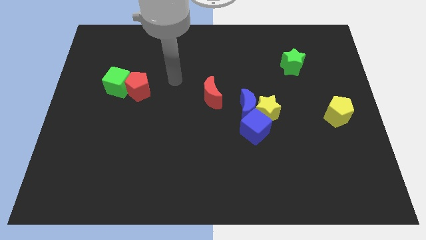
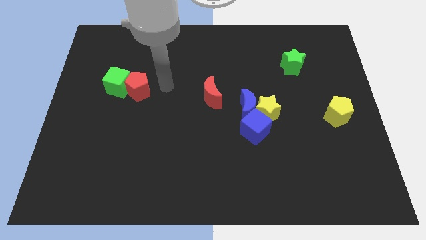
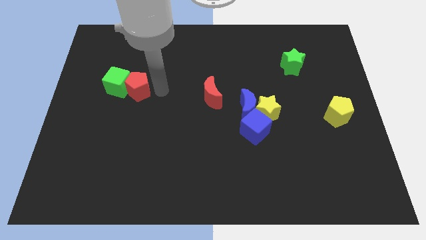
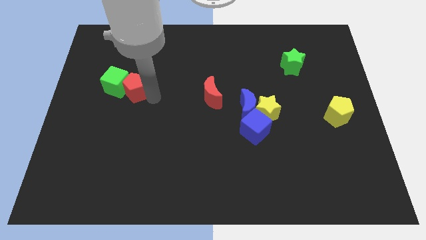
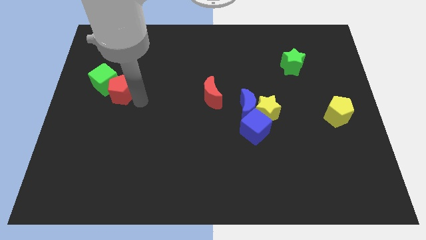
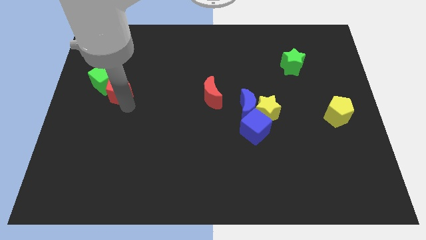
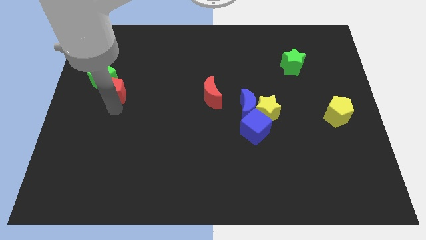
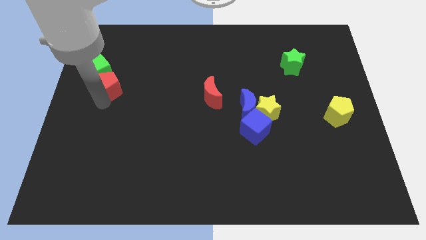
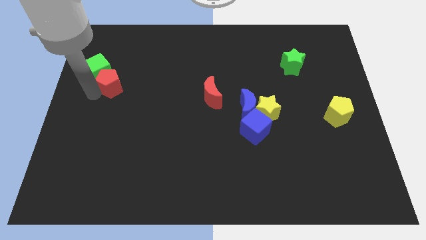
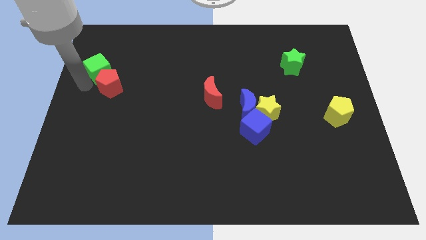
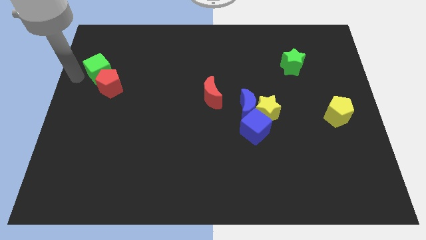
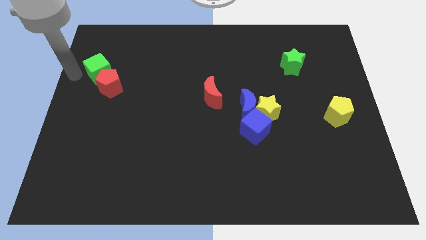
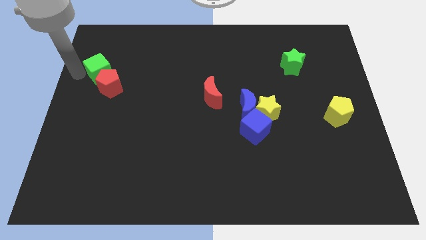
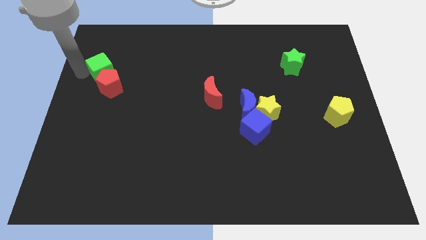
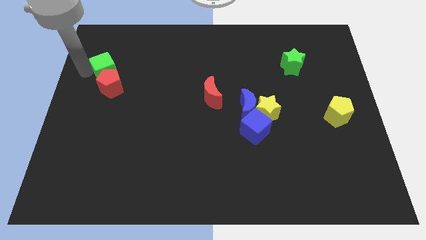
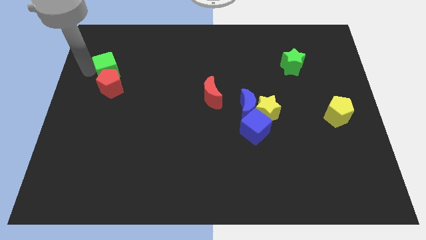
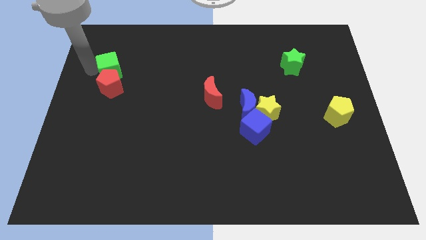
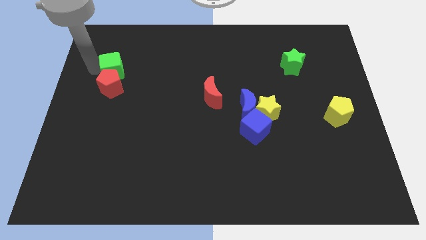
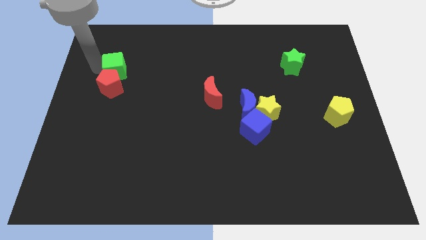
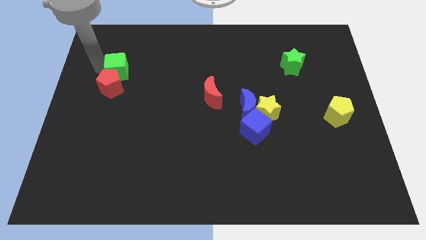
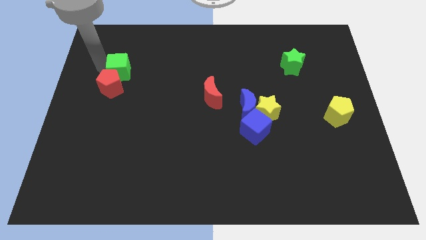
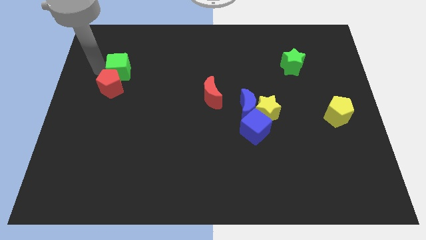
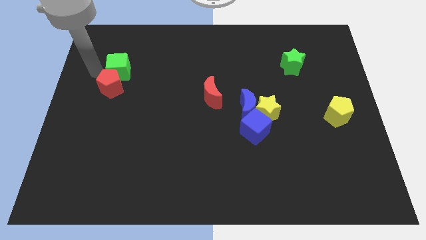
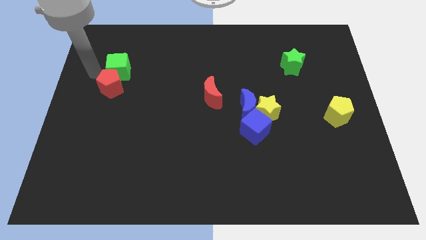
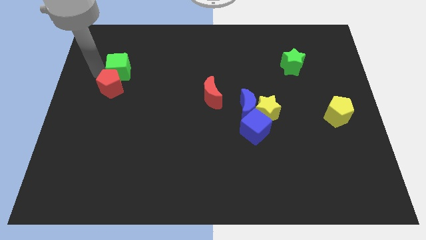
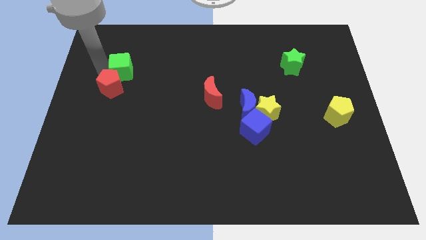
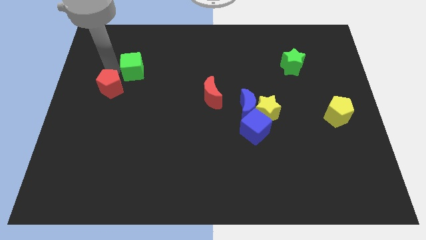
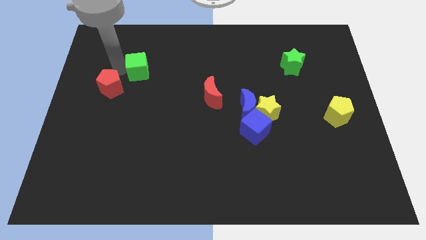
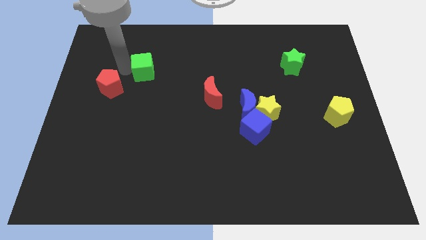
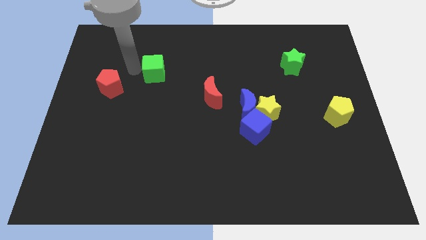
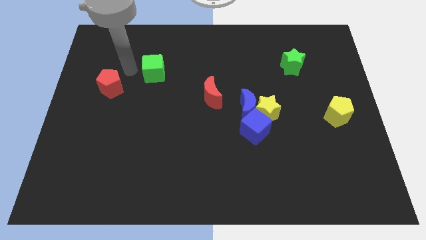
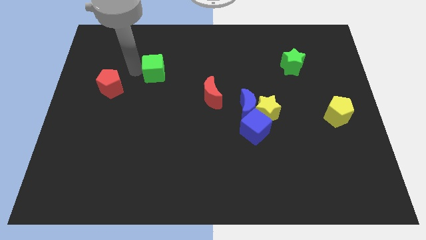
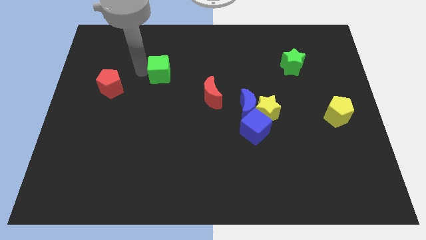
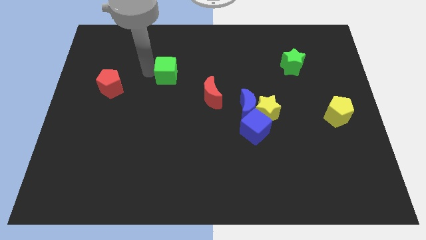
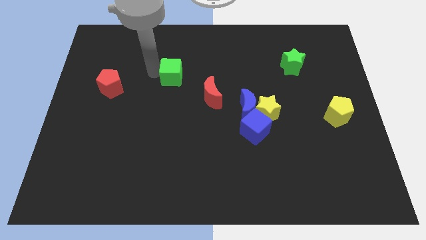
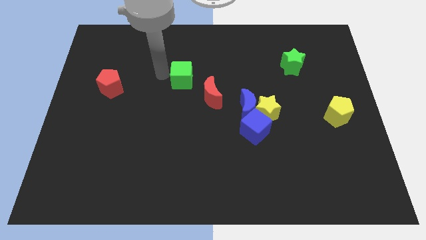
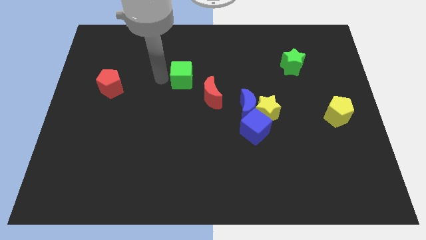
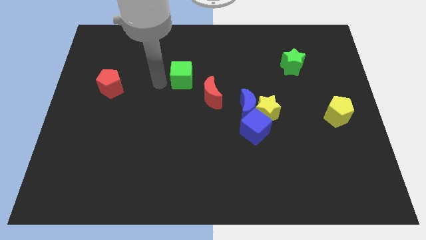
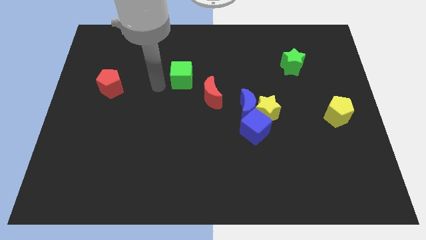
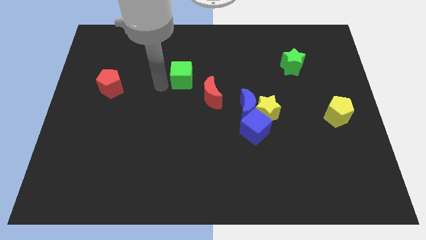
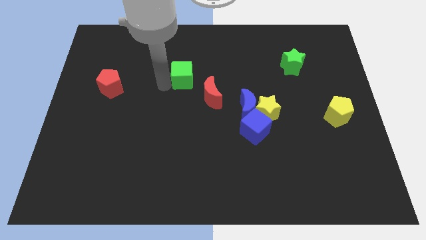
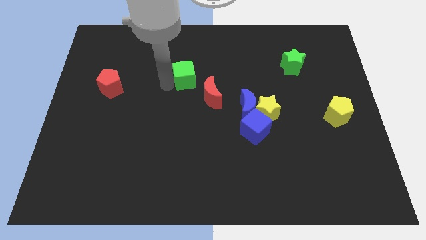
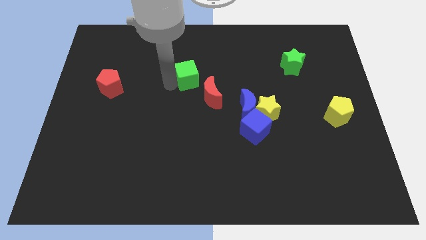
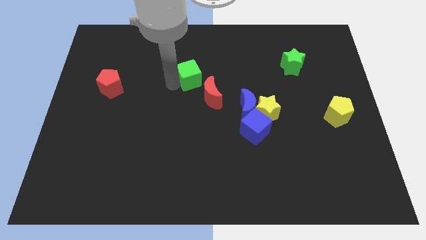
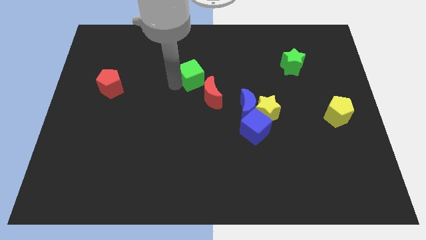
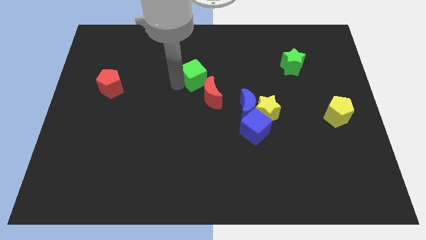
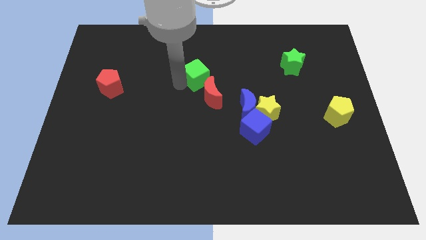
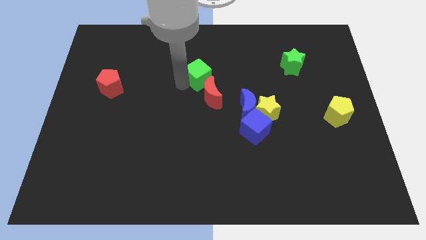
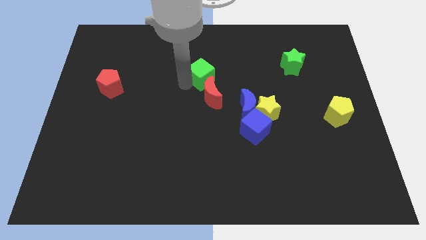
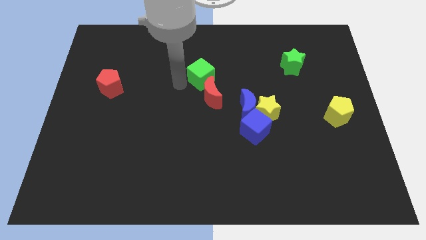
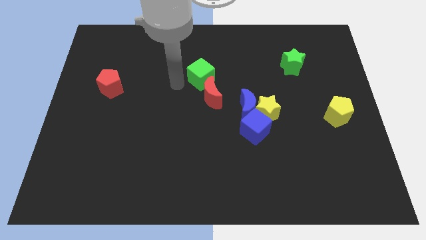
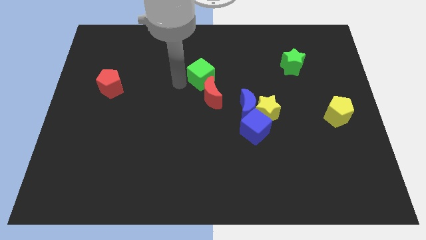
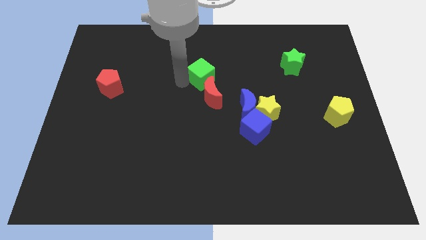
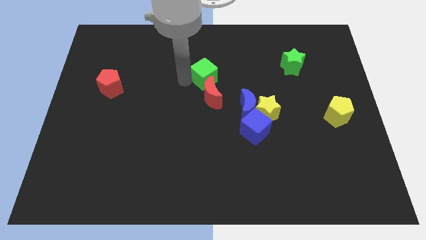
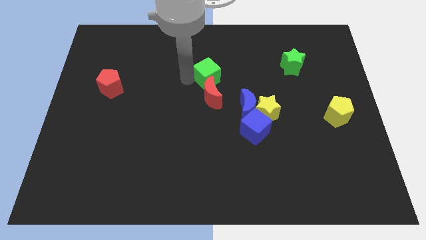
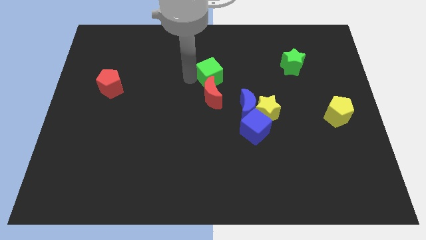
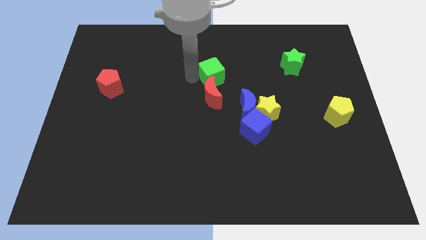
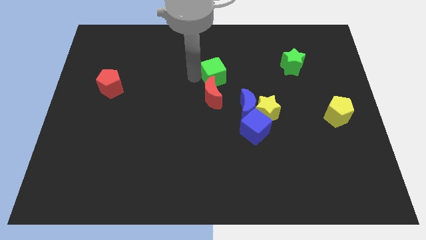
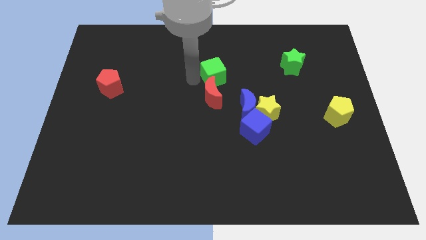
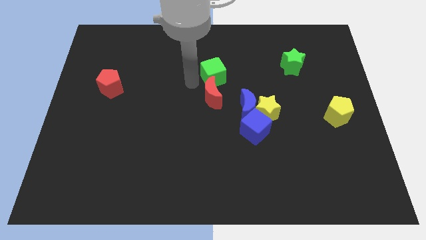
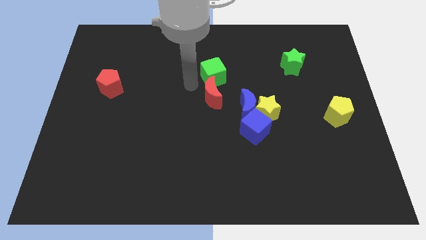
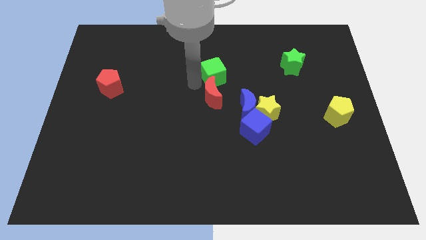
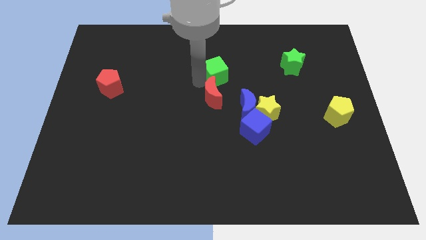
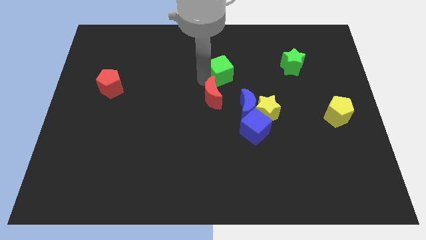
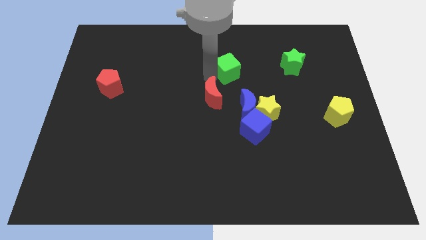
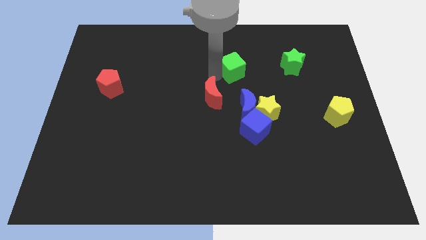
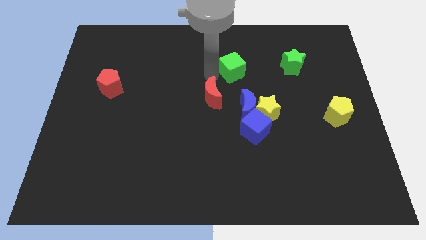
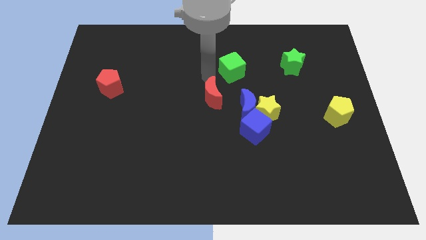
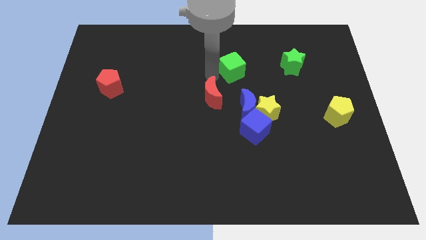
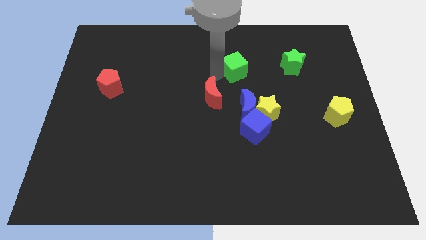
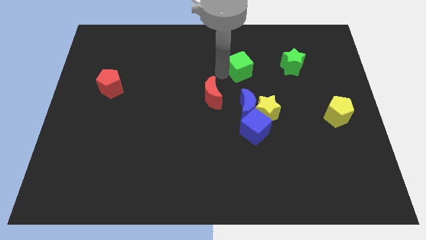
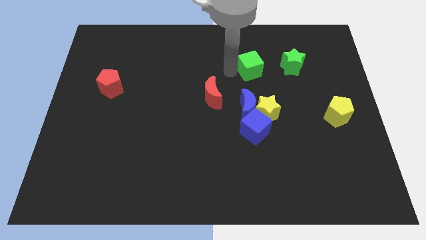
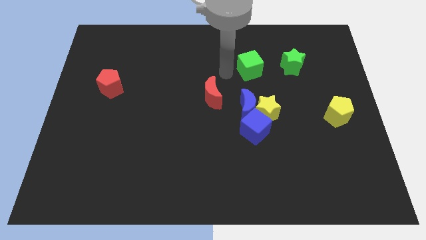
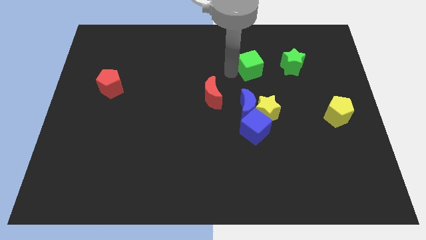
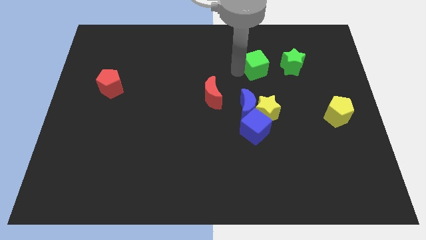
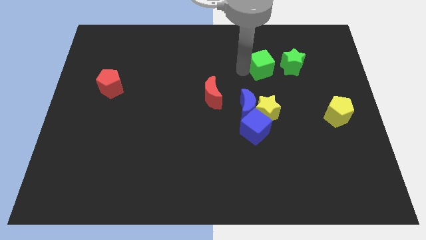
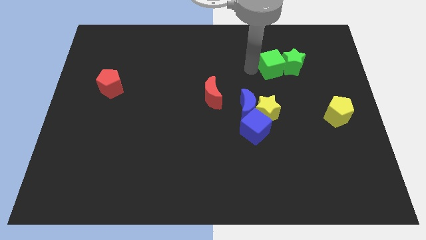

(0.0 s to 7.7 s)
push the green cube close to the green star
